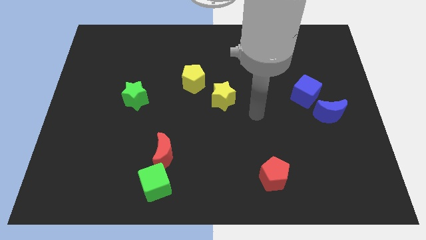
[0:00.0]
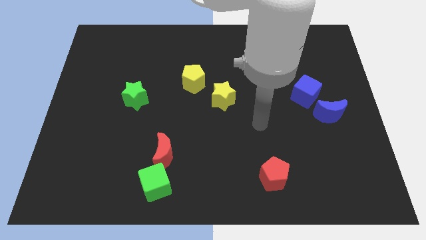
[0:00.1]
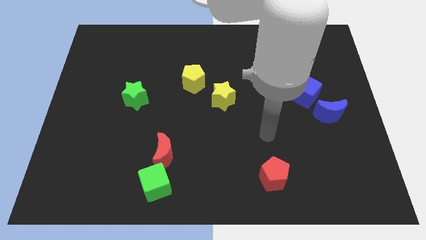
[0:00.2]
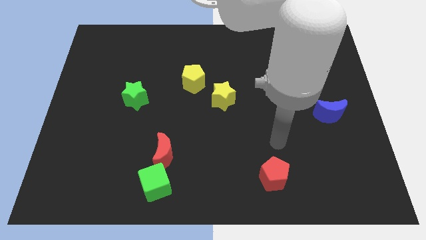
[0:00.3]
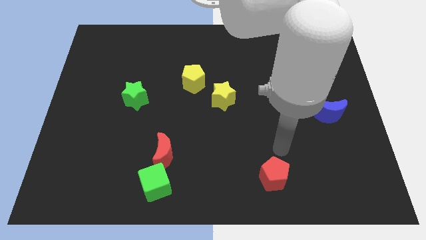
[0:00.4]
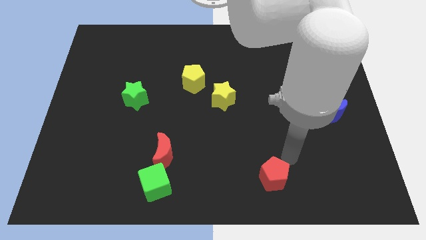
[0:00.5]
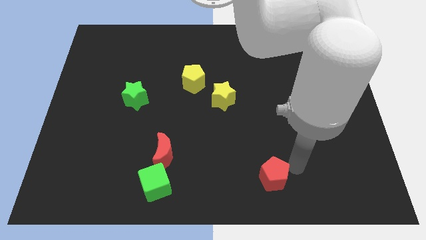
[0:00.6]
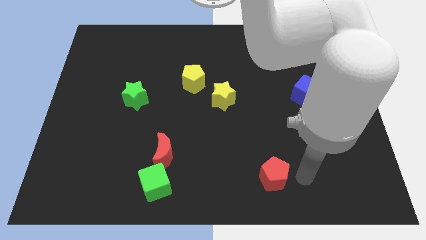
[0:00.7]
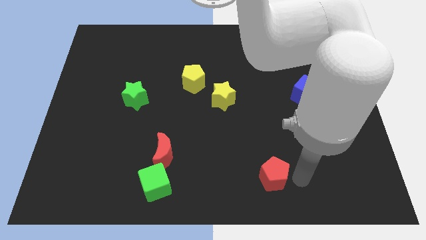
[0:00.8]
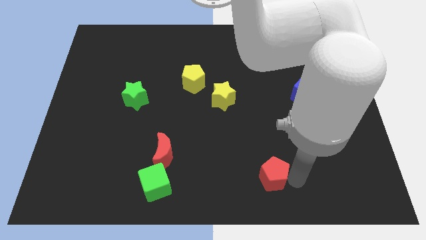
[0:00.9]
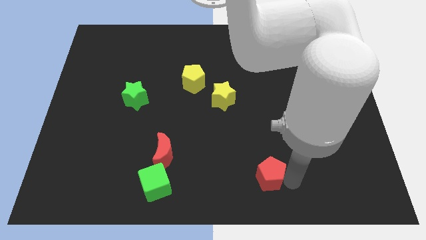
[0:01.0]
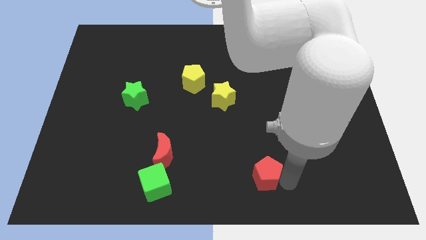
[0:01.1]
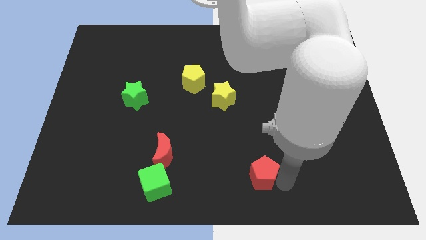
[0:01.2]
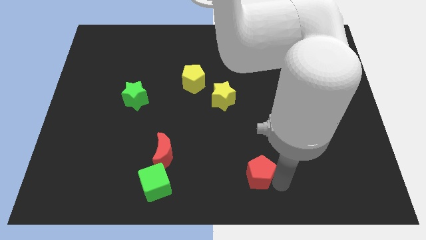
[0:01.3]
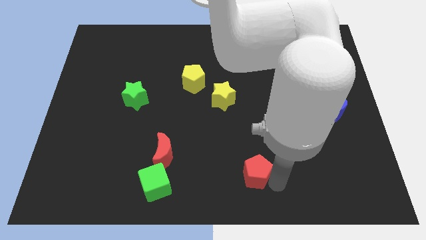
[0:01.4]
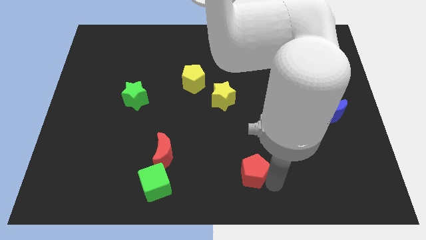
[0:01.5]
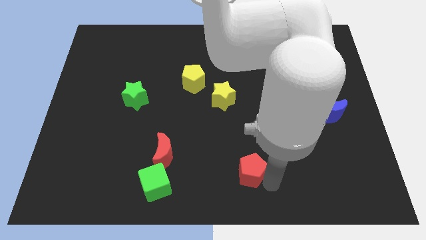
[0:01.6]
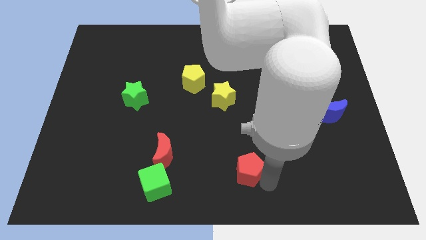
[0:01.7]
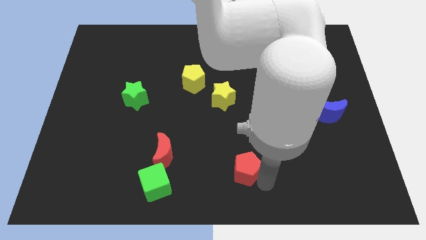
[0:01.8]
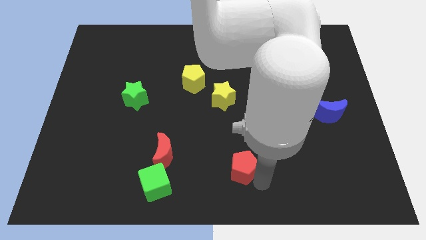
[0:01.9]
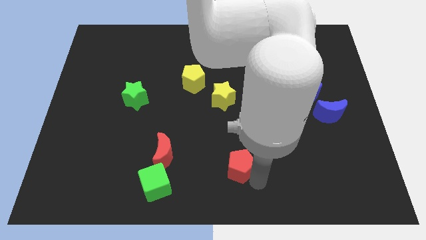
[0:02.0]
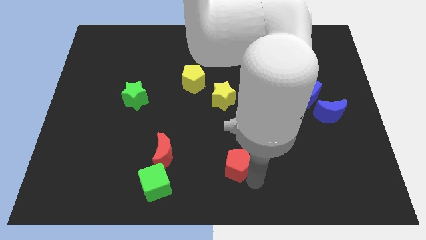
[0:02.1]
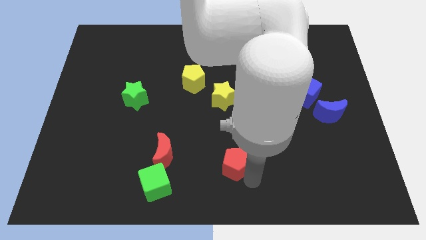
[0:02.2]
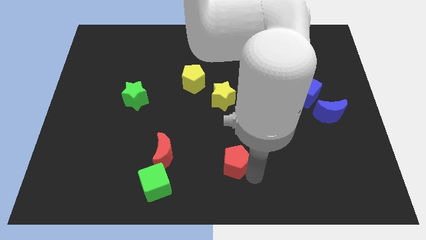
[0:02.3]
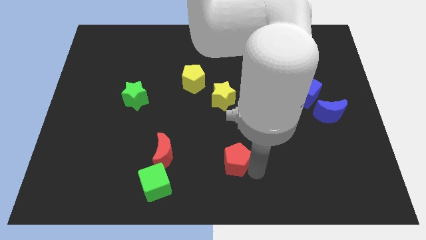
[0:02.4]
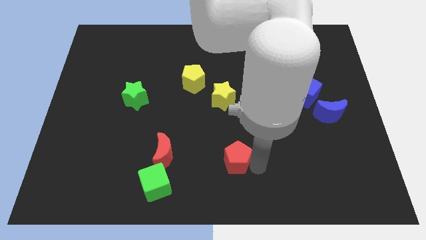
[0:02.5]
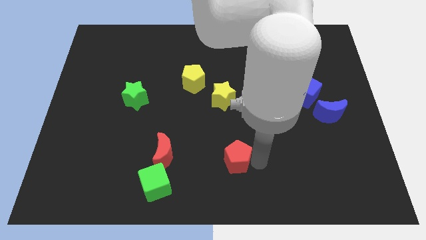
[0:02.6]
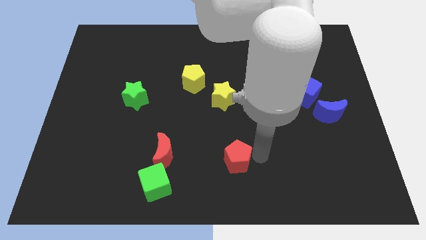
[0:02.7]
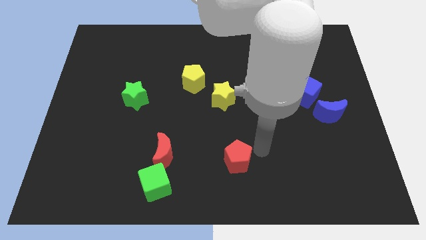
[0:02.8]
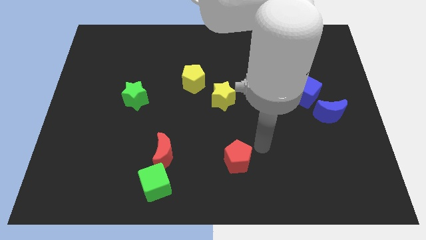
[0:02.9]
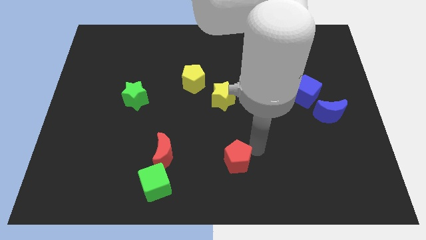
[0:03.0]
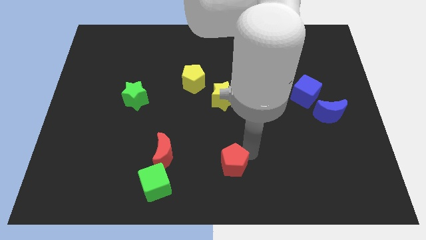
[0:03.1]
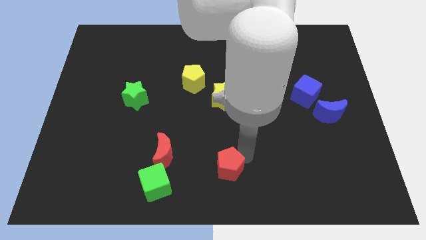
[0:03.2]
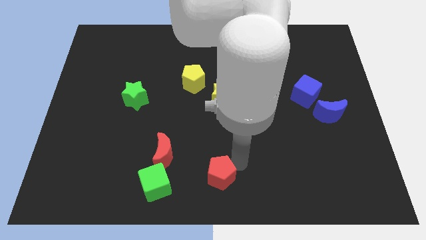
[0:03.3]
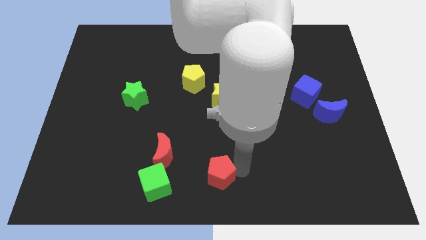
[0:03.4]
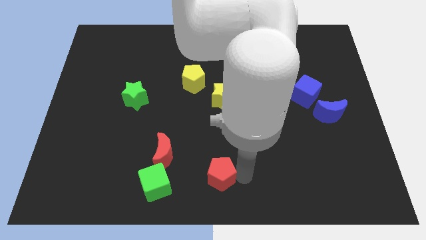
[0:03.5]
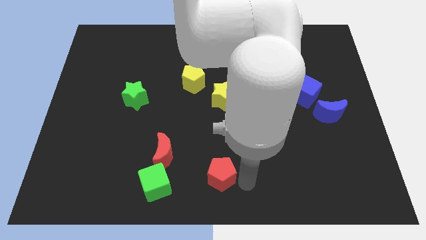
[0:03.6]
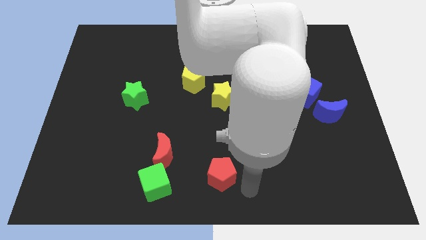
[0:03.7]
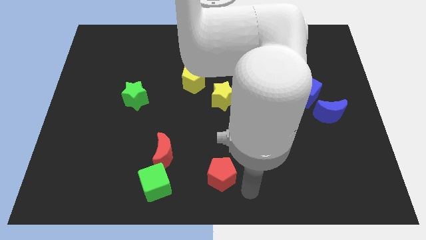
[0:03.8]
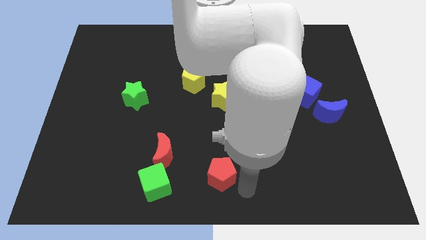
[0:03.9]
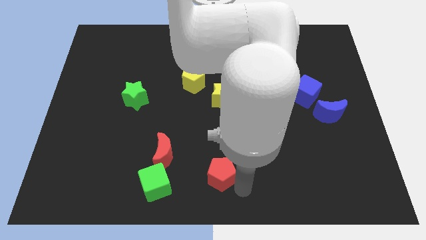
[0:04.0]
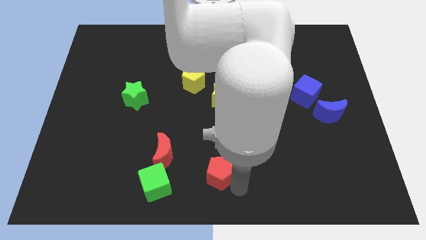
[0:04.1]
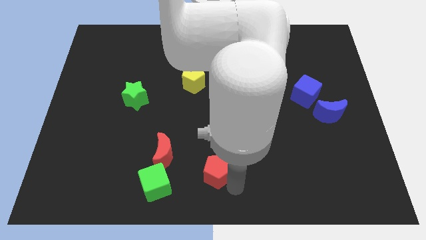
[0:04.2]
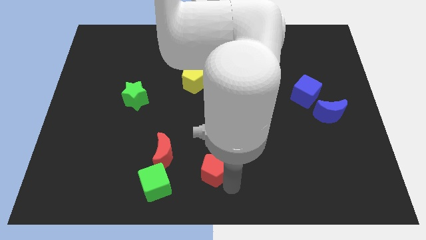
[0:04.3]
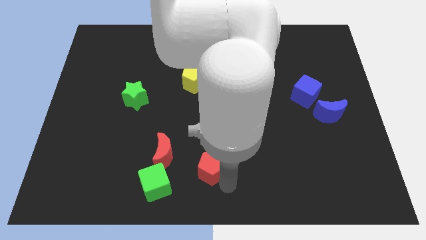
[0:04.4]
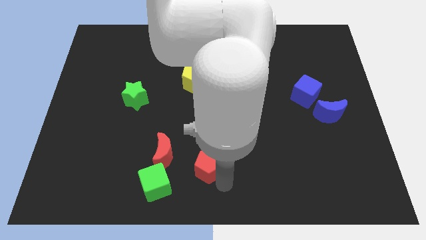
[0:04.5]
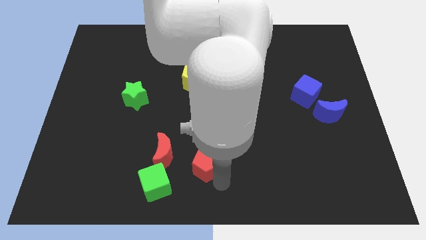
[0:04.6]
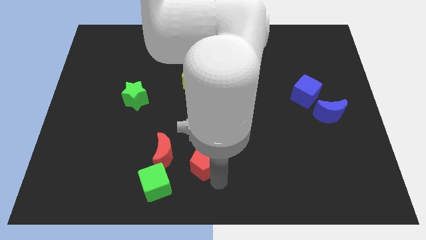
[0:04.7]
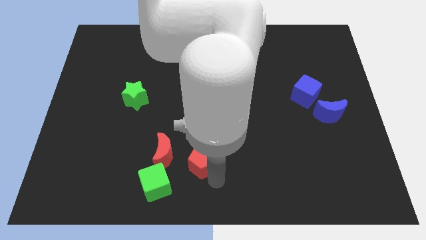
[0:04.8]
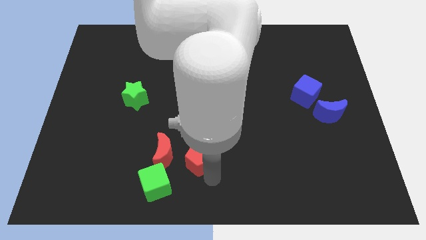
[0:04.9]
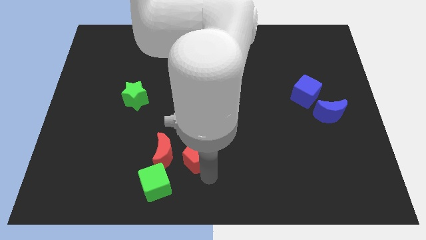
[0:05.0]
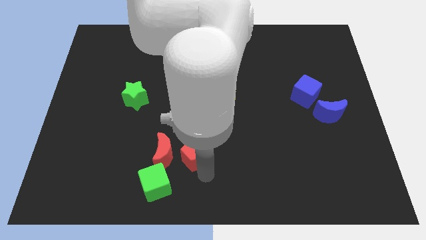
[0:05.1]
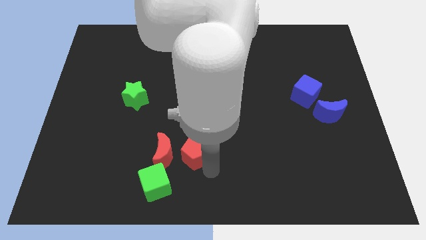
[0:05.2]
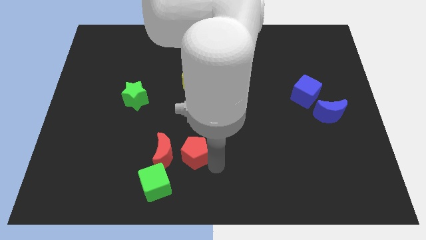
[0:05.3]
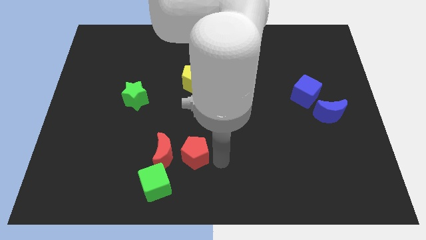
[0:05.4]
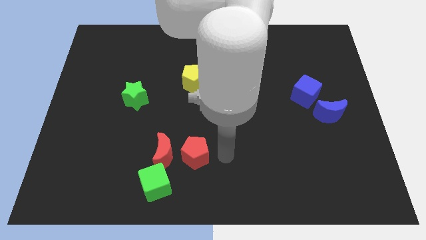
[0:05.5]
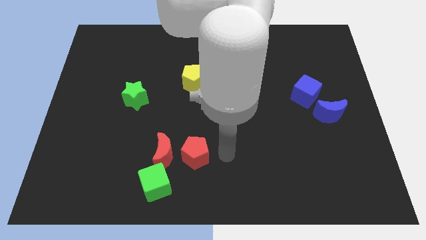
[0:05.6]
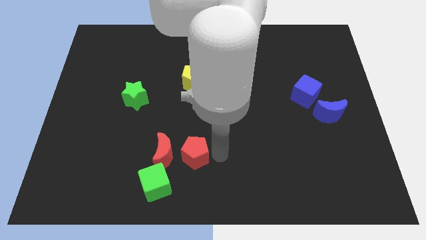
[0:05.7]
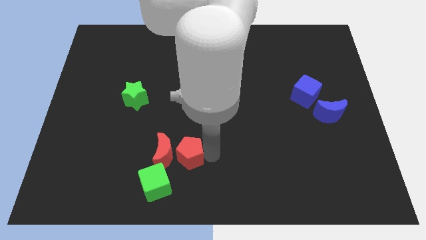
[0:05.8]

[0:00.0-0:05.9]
move the red pentagon towards the red moon
